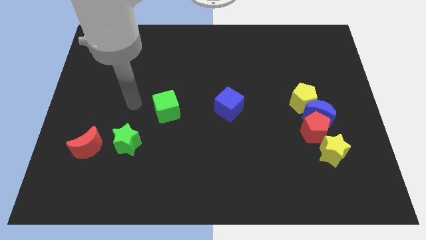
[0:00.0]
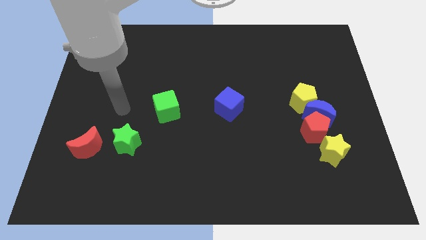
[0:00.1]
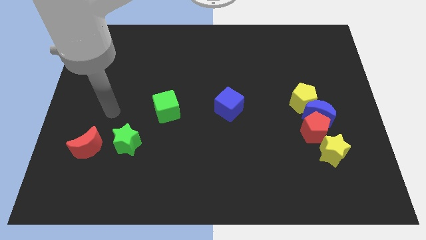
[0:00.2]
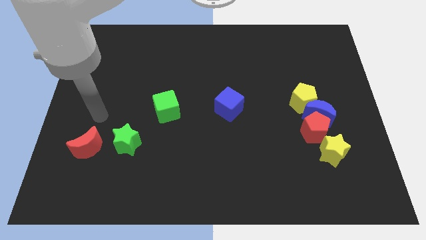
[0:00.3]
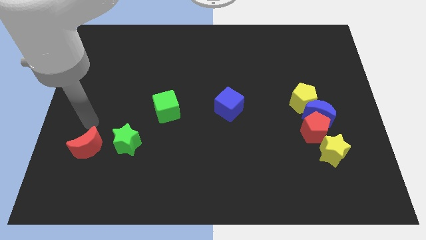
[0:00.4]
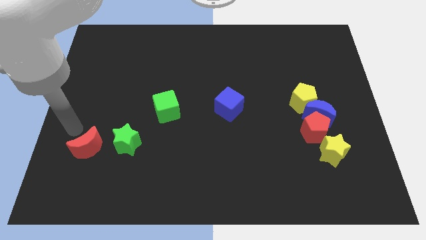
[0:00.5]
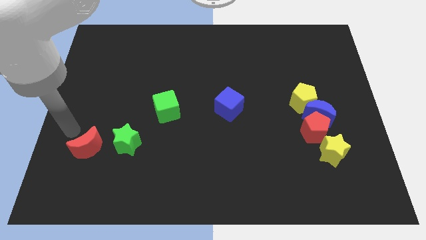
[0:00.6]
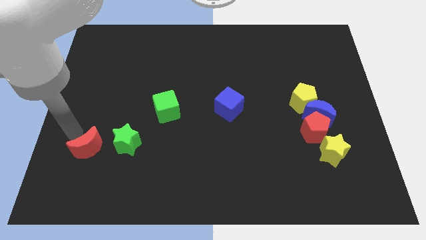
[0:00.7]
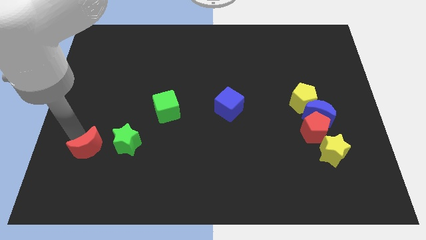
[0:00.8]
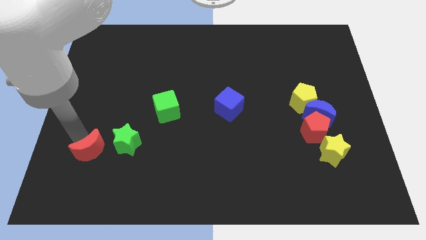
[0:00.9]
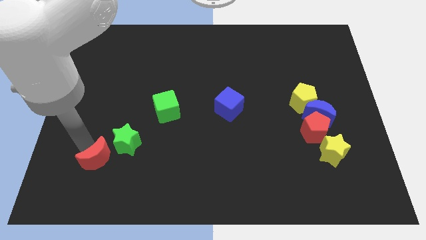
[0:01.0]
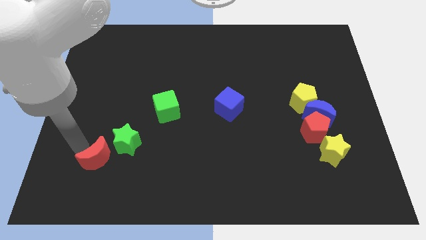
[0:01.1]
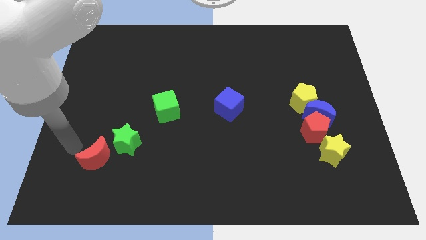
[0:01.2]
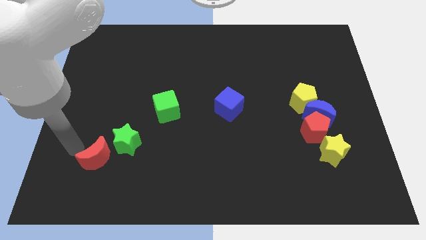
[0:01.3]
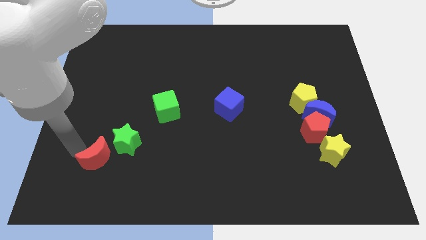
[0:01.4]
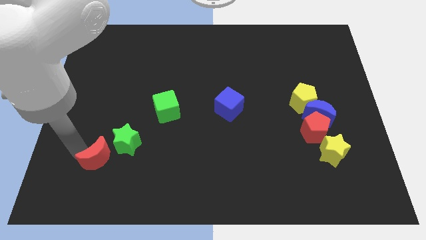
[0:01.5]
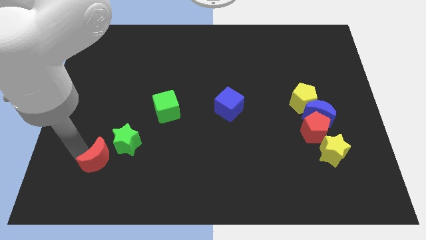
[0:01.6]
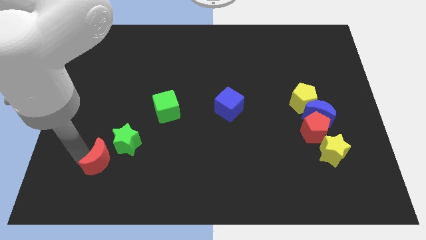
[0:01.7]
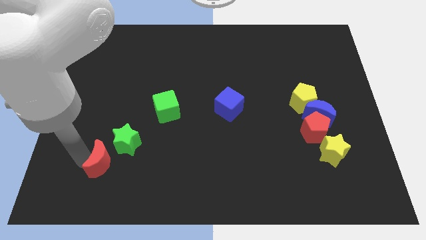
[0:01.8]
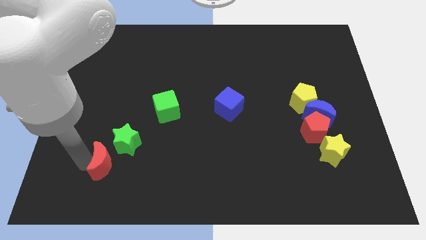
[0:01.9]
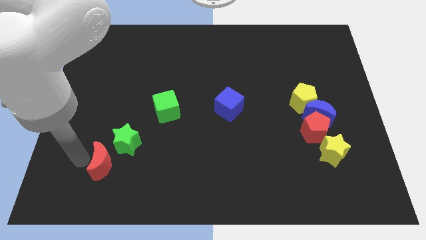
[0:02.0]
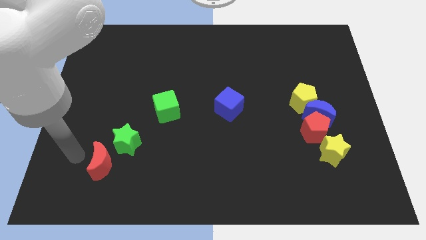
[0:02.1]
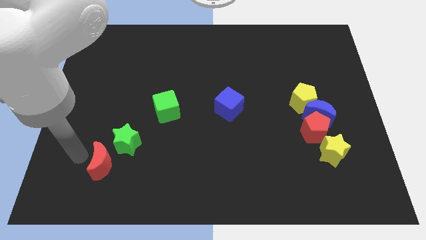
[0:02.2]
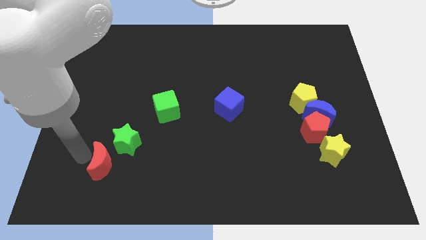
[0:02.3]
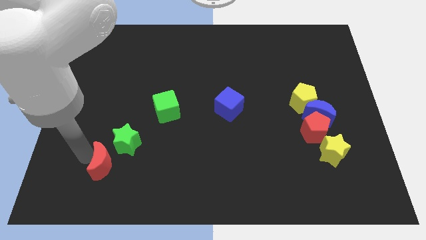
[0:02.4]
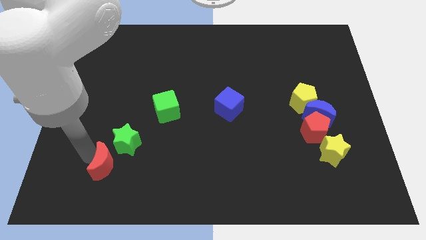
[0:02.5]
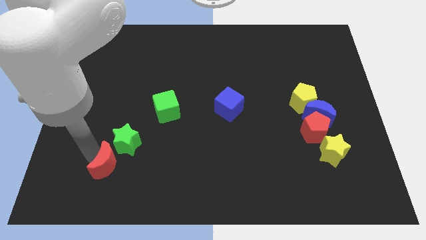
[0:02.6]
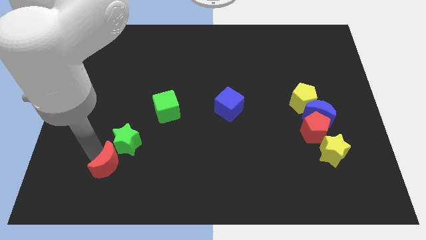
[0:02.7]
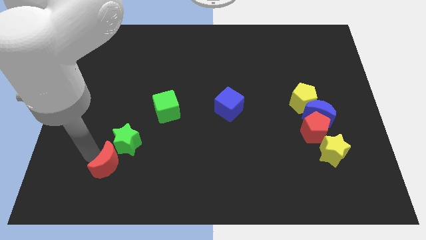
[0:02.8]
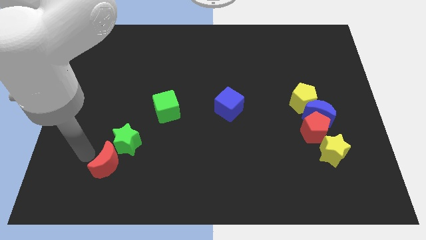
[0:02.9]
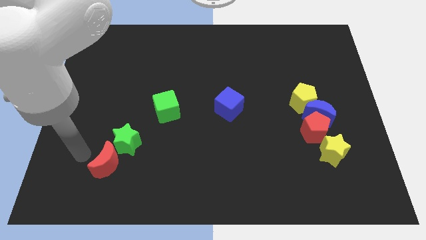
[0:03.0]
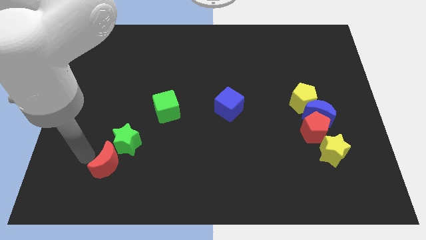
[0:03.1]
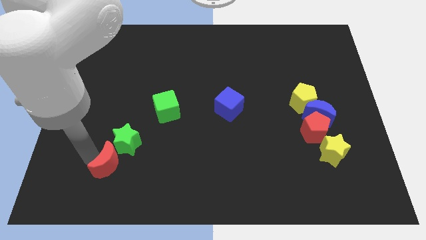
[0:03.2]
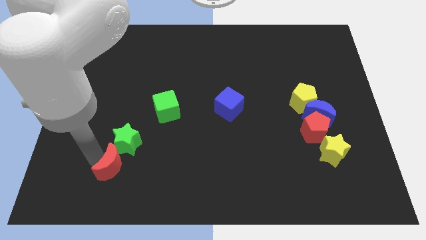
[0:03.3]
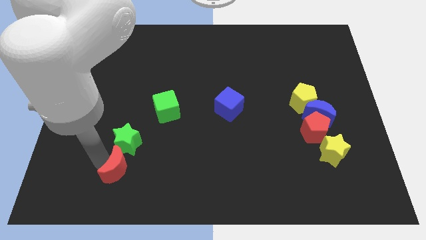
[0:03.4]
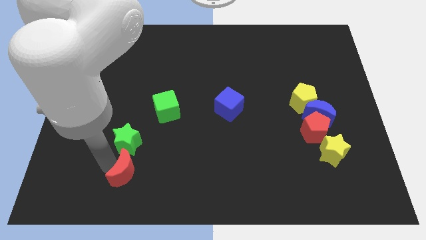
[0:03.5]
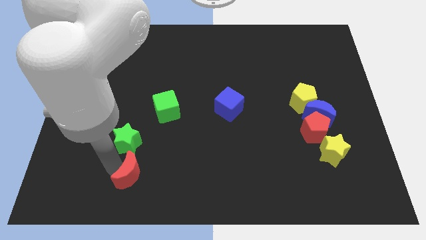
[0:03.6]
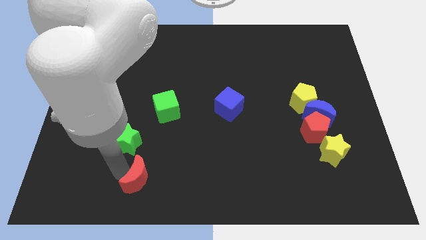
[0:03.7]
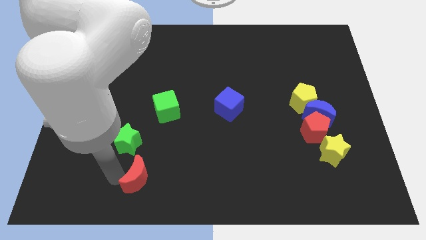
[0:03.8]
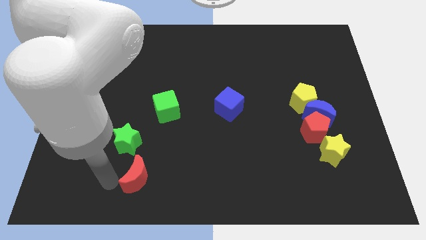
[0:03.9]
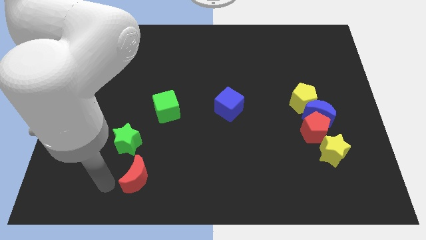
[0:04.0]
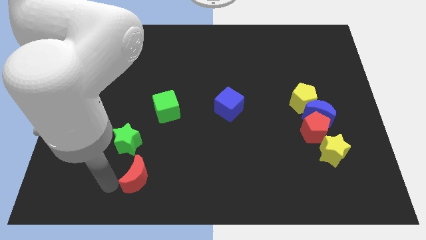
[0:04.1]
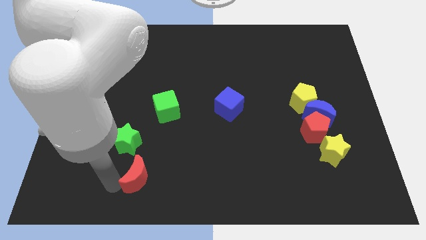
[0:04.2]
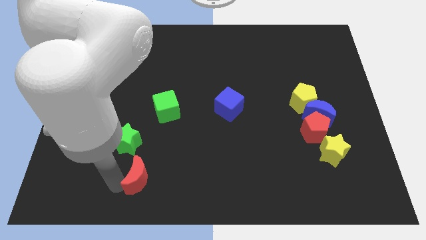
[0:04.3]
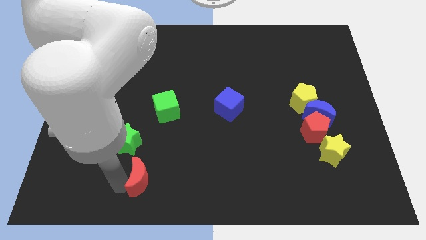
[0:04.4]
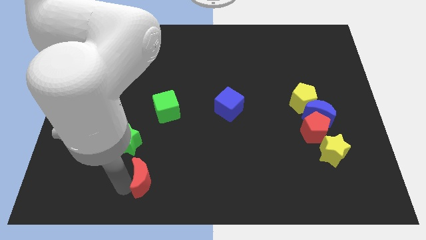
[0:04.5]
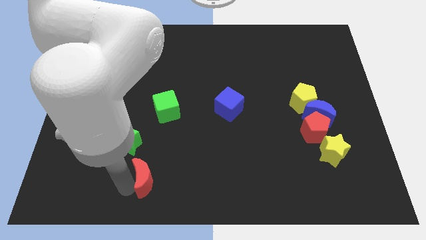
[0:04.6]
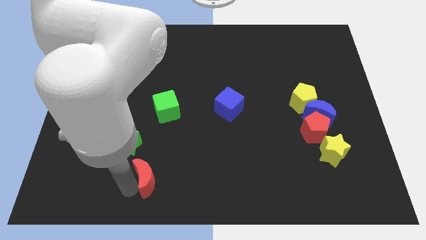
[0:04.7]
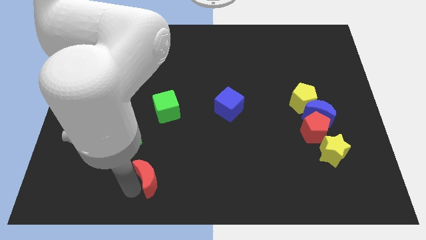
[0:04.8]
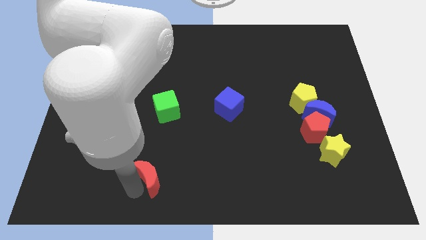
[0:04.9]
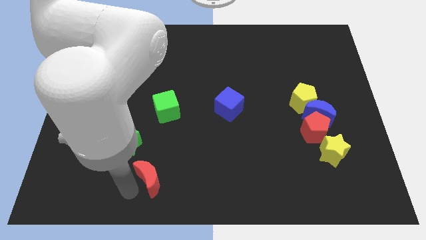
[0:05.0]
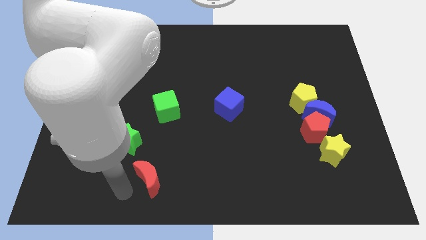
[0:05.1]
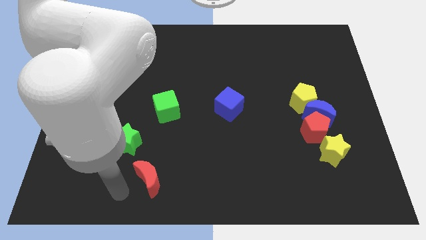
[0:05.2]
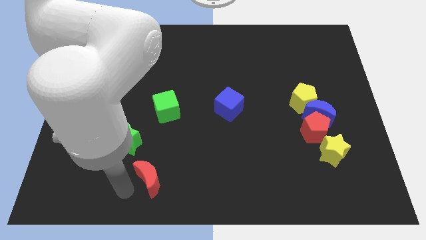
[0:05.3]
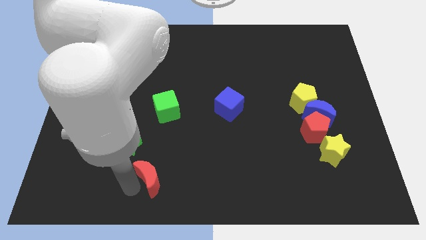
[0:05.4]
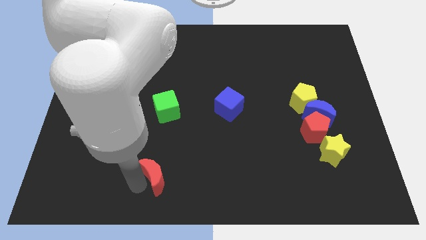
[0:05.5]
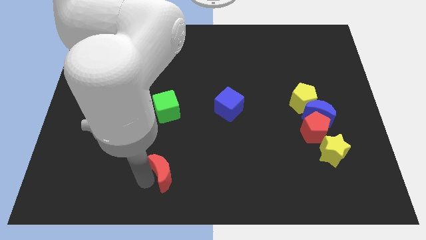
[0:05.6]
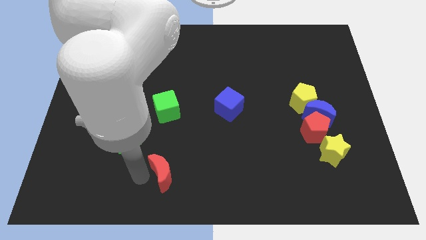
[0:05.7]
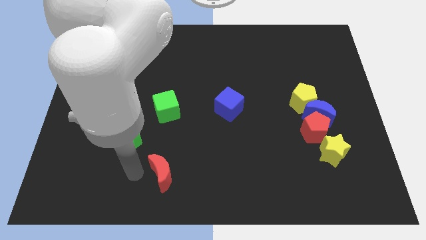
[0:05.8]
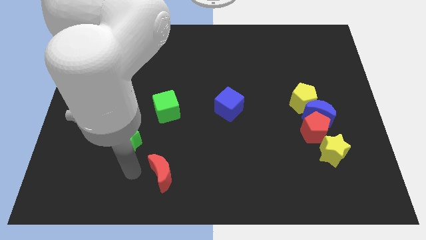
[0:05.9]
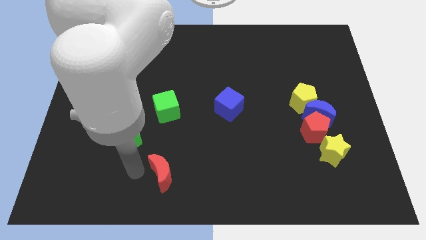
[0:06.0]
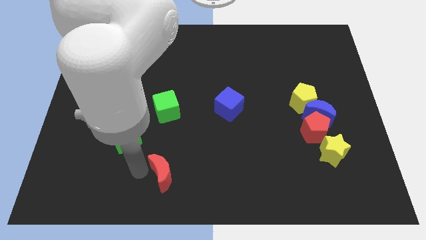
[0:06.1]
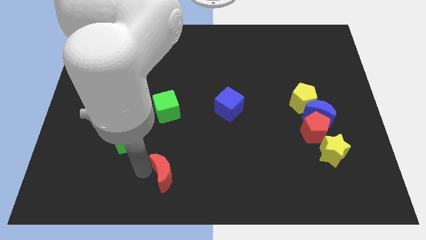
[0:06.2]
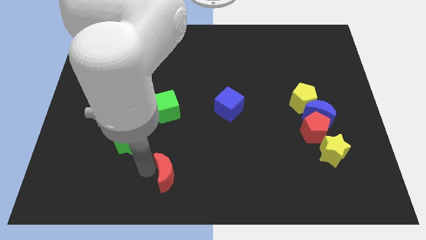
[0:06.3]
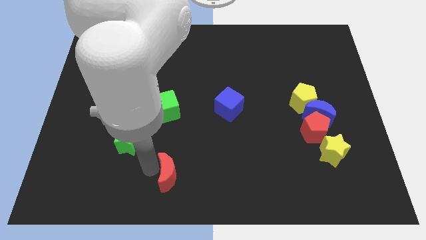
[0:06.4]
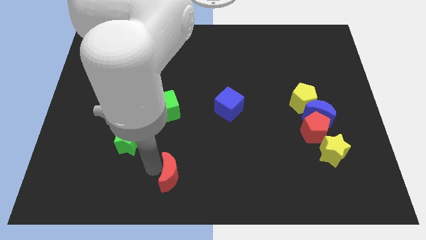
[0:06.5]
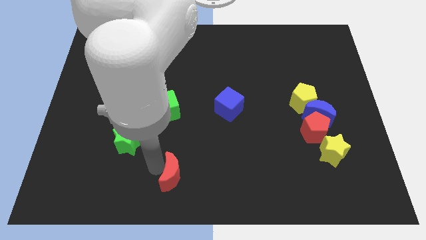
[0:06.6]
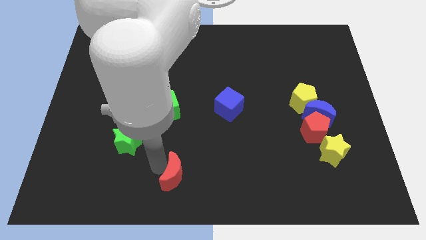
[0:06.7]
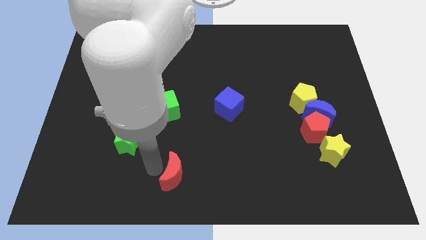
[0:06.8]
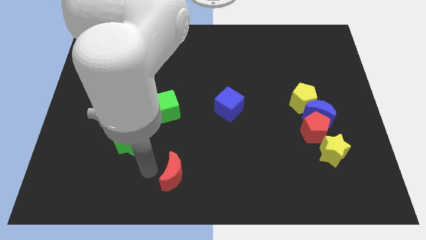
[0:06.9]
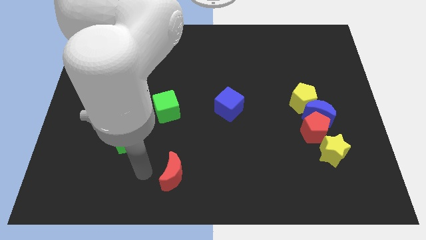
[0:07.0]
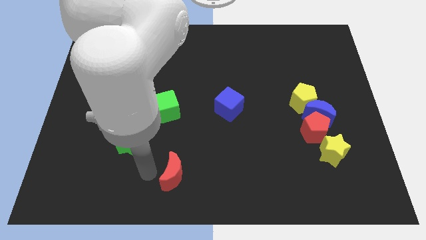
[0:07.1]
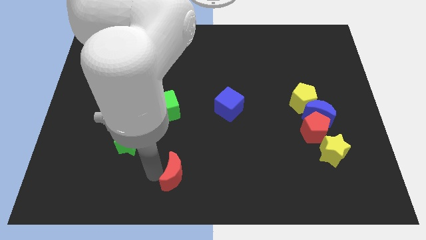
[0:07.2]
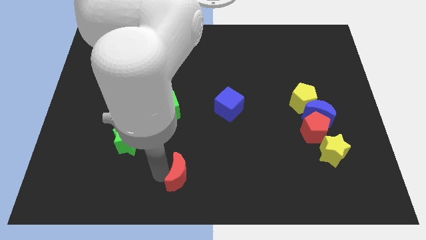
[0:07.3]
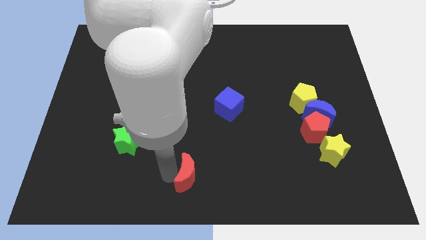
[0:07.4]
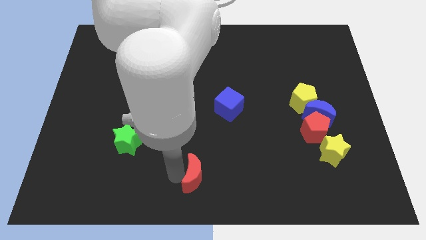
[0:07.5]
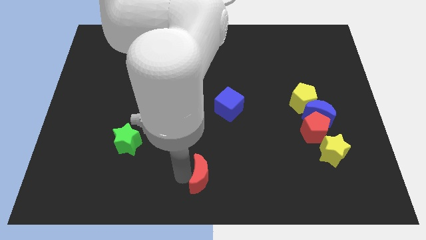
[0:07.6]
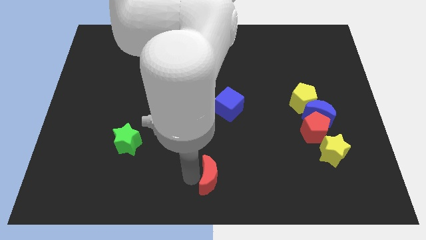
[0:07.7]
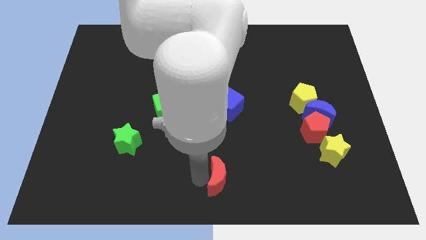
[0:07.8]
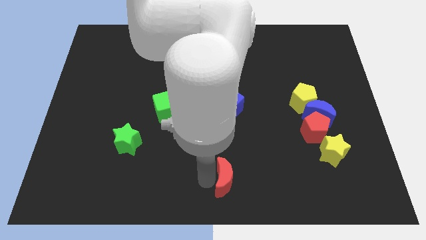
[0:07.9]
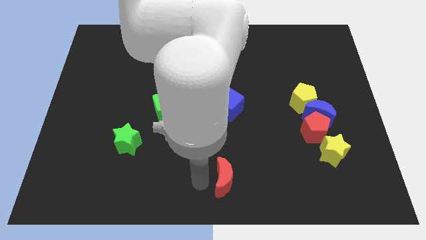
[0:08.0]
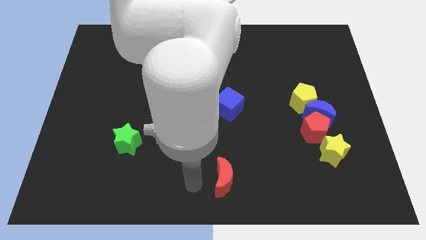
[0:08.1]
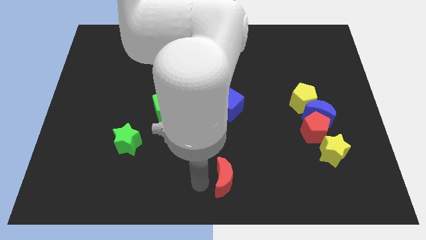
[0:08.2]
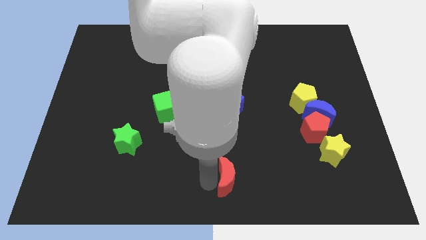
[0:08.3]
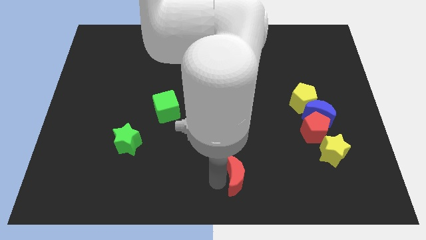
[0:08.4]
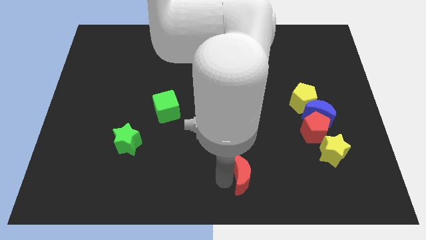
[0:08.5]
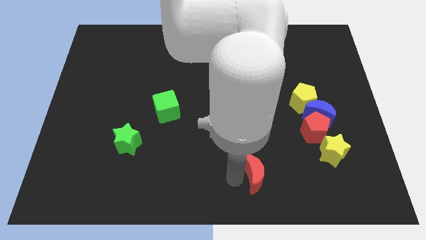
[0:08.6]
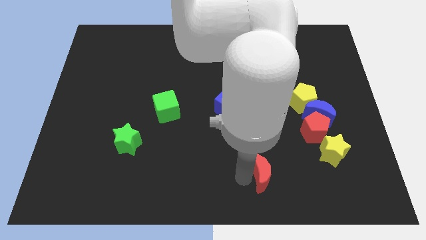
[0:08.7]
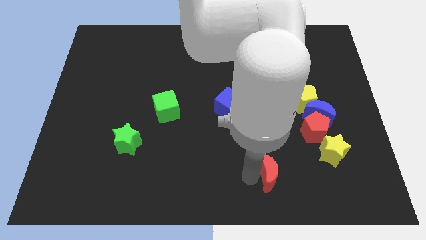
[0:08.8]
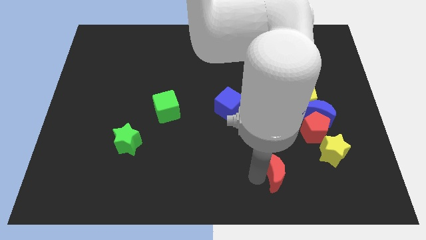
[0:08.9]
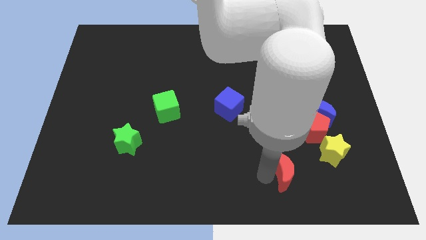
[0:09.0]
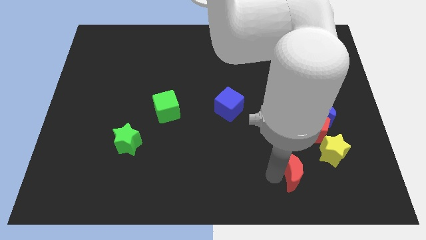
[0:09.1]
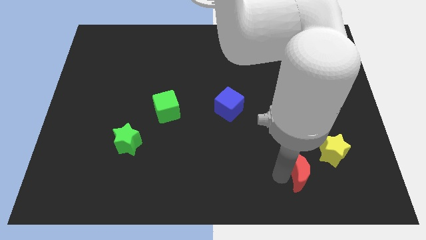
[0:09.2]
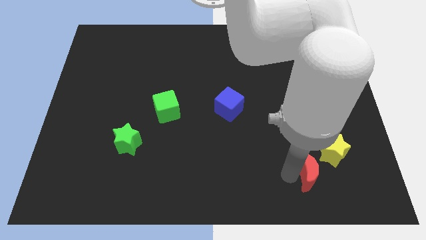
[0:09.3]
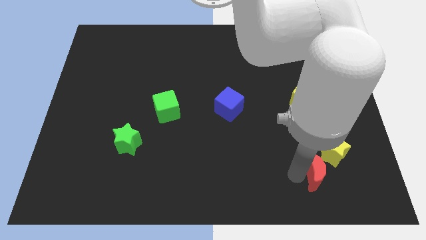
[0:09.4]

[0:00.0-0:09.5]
put the red moon below the blue moon
